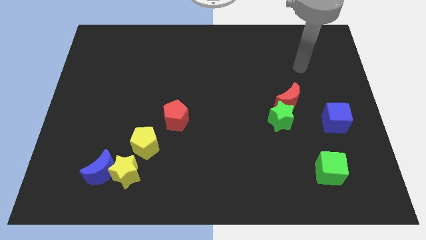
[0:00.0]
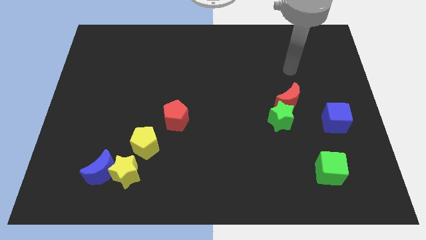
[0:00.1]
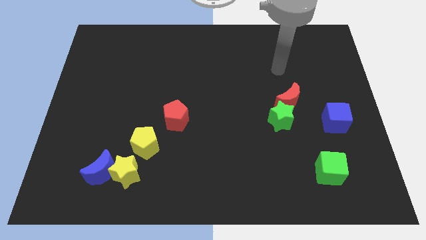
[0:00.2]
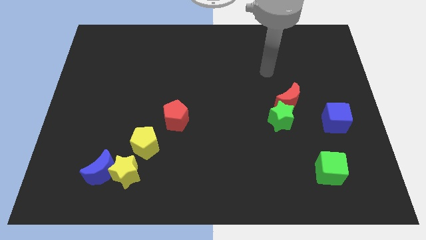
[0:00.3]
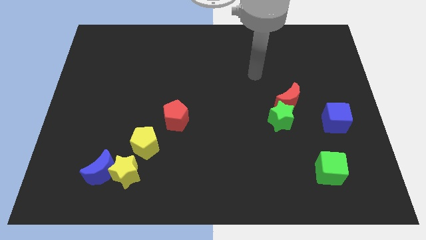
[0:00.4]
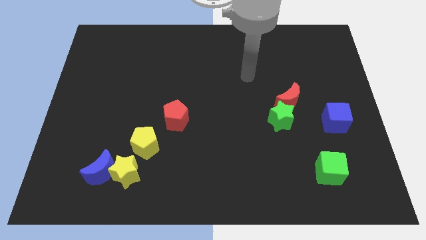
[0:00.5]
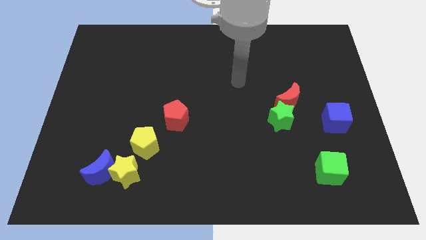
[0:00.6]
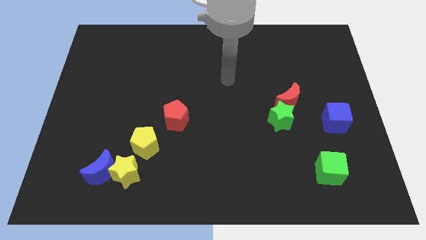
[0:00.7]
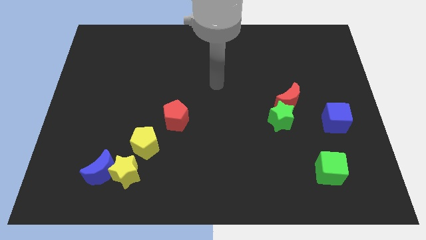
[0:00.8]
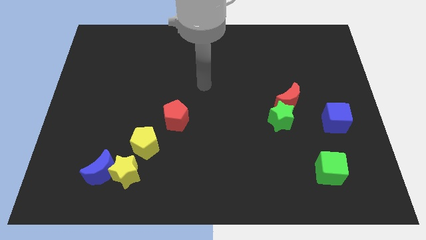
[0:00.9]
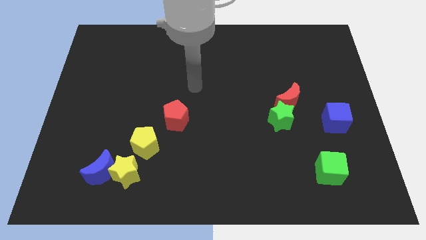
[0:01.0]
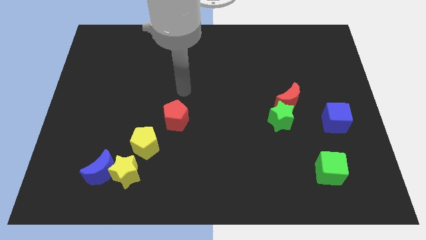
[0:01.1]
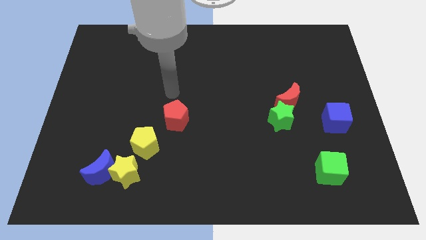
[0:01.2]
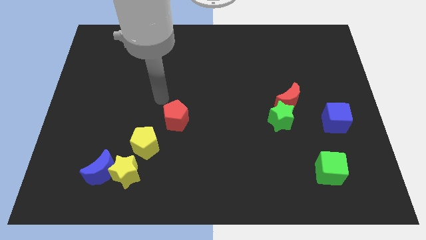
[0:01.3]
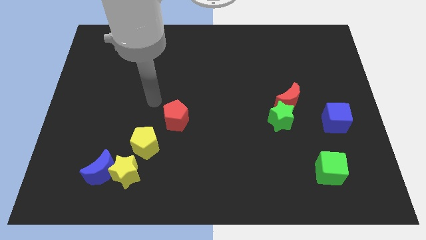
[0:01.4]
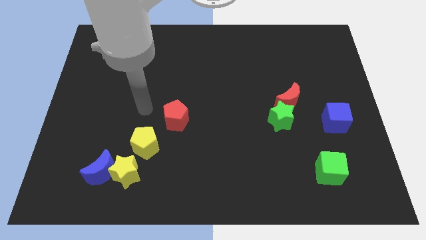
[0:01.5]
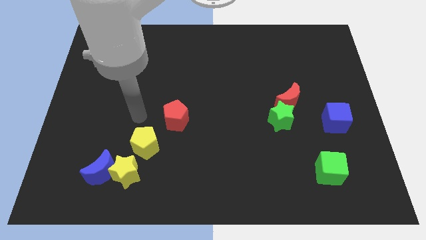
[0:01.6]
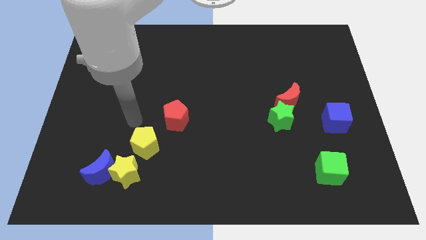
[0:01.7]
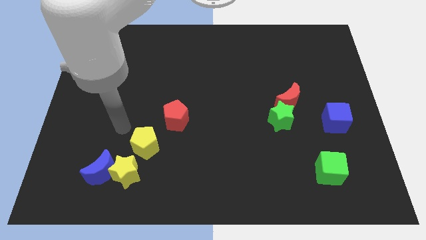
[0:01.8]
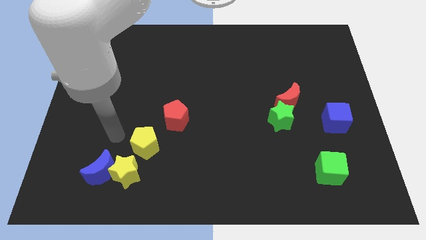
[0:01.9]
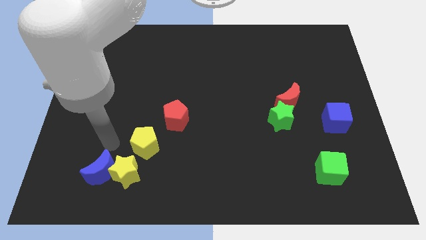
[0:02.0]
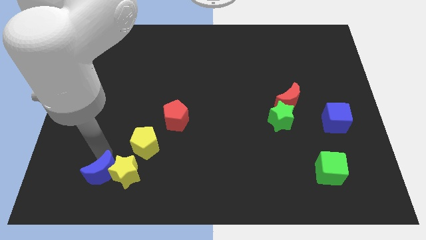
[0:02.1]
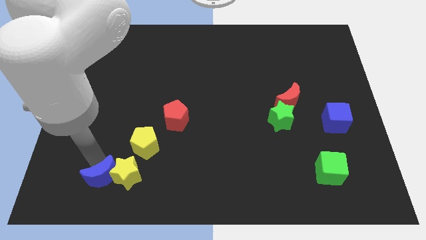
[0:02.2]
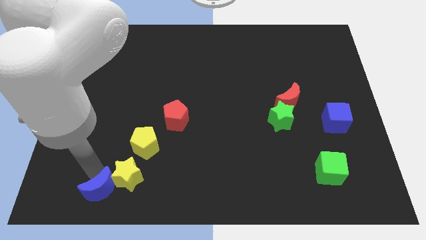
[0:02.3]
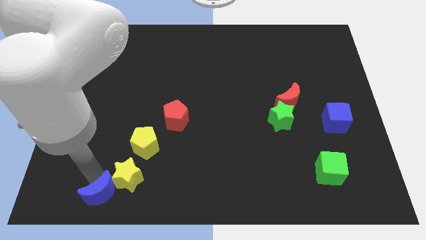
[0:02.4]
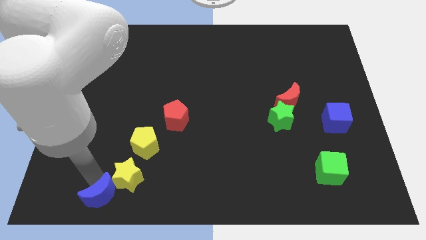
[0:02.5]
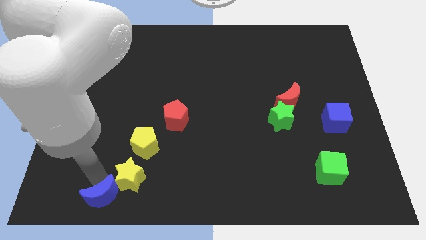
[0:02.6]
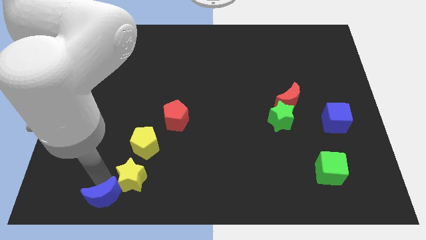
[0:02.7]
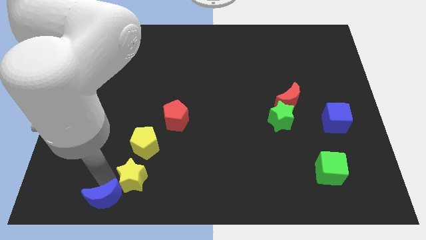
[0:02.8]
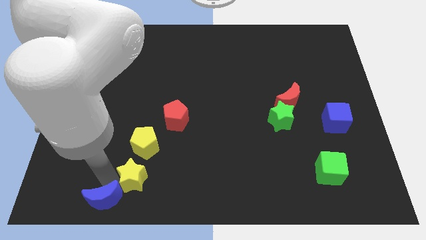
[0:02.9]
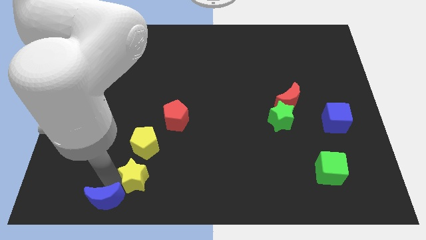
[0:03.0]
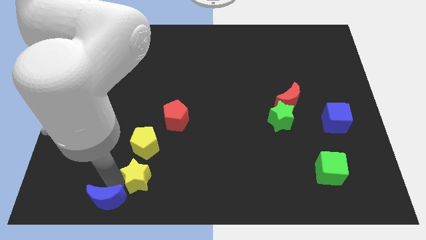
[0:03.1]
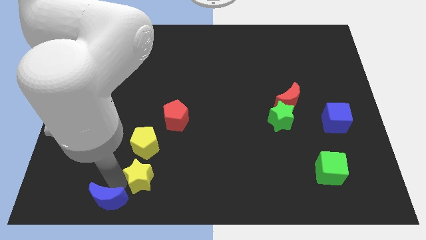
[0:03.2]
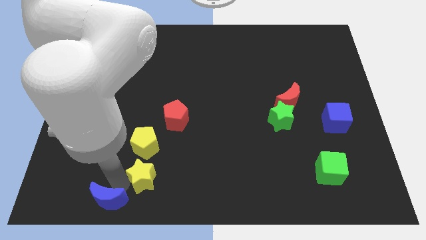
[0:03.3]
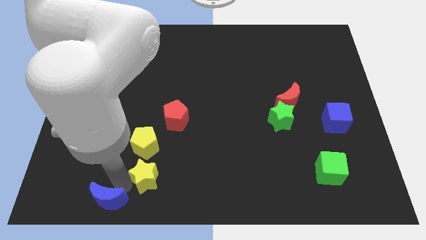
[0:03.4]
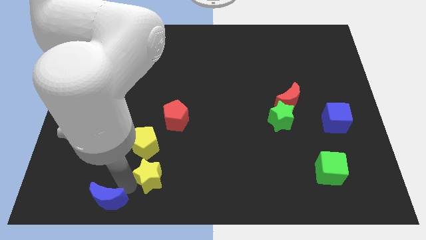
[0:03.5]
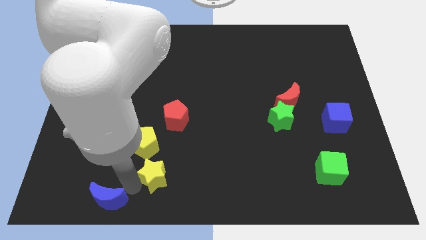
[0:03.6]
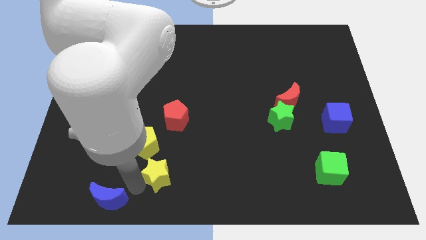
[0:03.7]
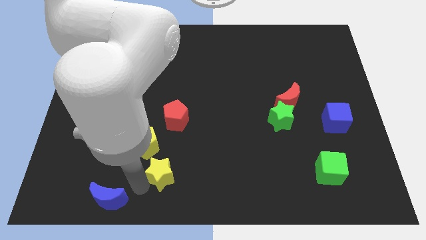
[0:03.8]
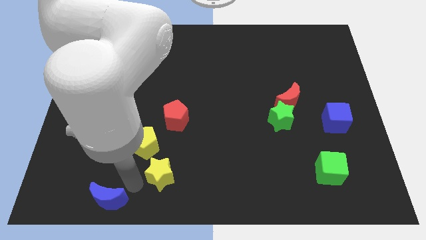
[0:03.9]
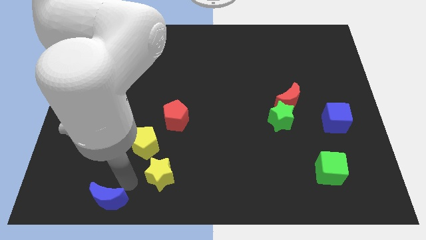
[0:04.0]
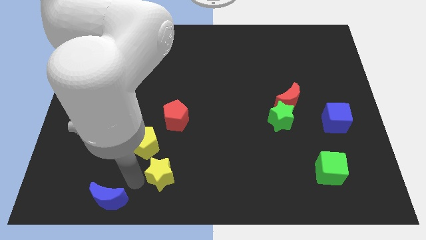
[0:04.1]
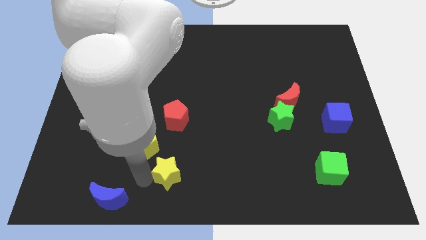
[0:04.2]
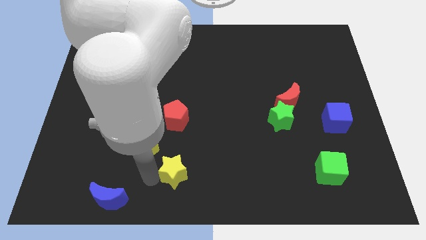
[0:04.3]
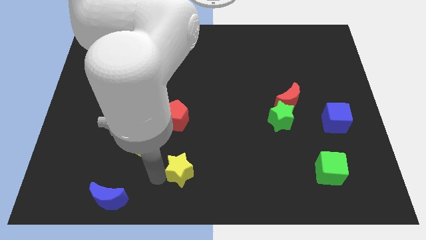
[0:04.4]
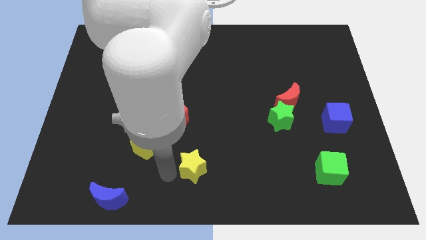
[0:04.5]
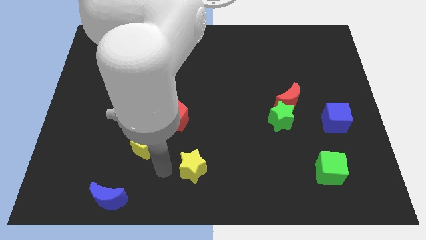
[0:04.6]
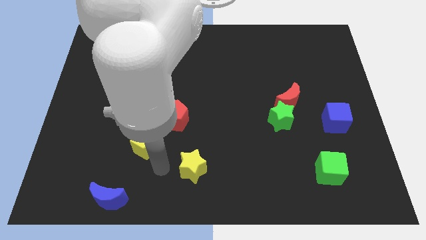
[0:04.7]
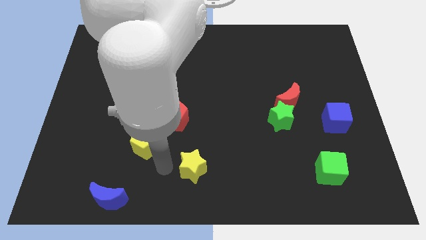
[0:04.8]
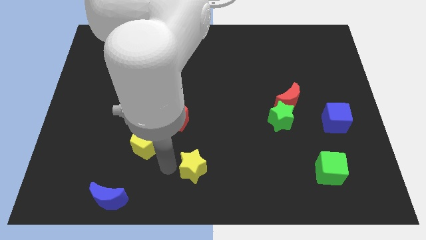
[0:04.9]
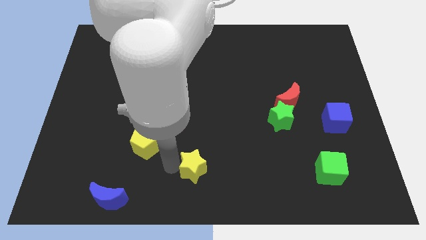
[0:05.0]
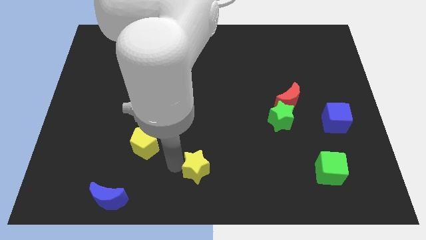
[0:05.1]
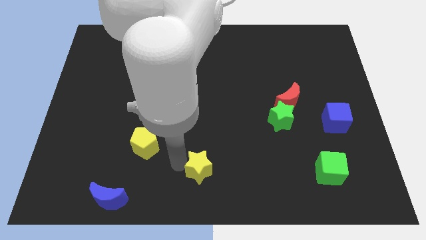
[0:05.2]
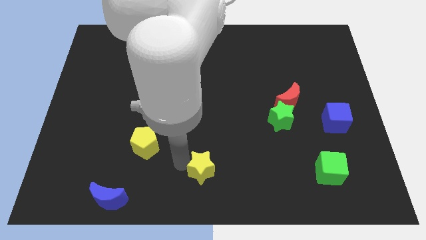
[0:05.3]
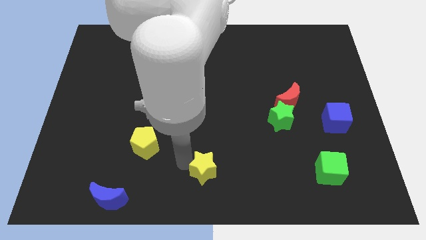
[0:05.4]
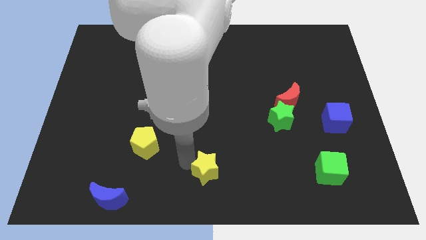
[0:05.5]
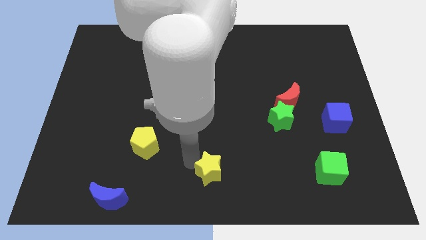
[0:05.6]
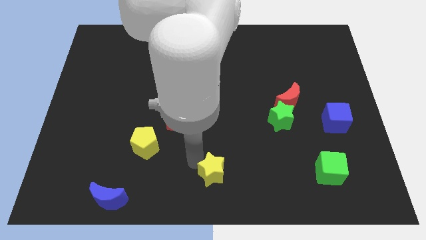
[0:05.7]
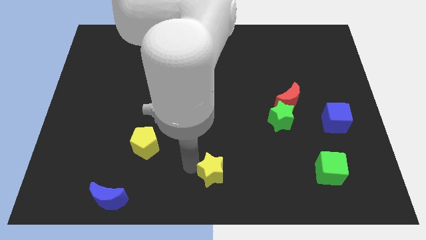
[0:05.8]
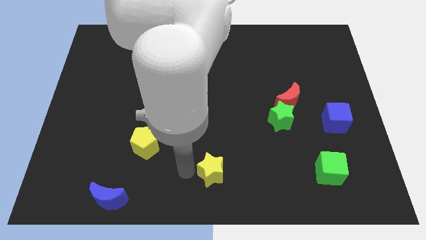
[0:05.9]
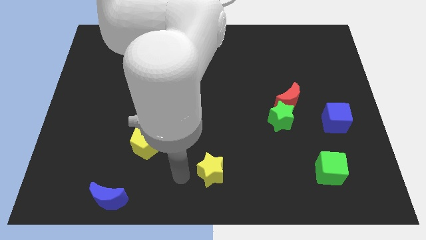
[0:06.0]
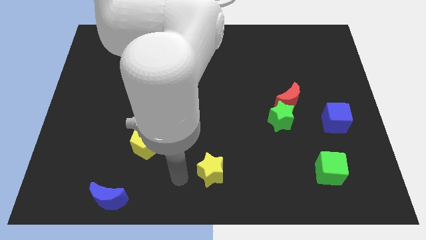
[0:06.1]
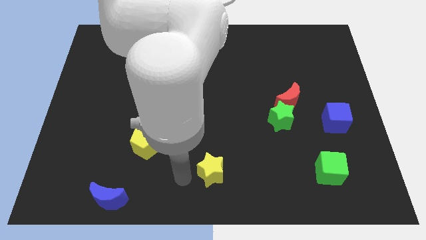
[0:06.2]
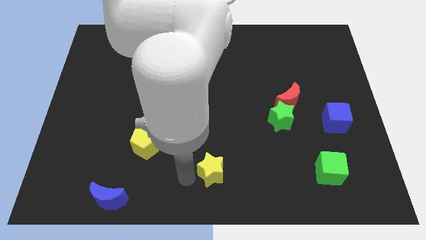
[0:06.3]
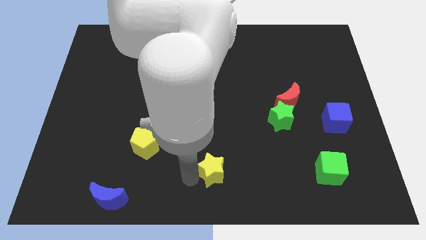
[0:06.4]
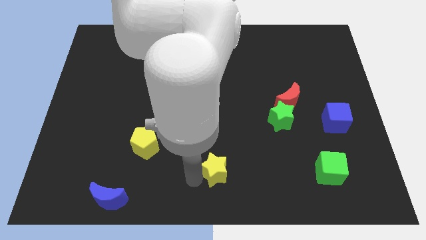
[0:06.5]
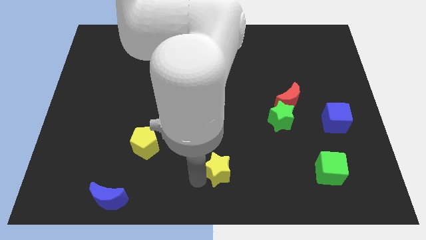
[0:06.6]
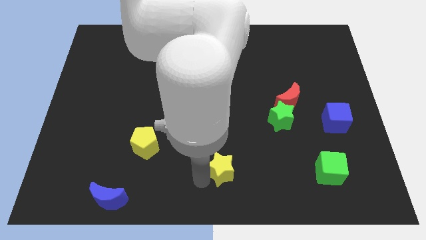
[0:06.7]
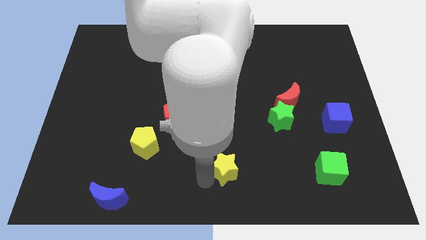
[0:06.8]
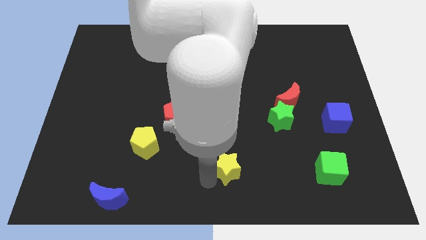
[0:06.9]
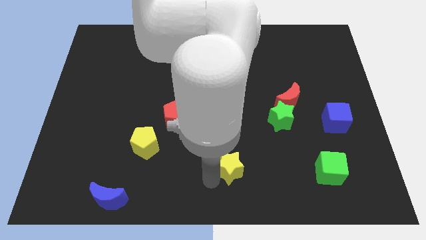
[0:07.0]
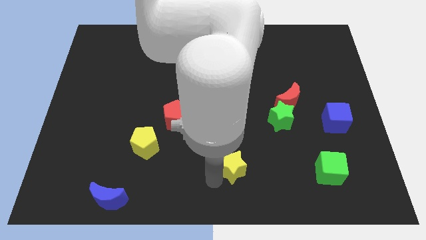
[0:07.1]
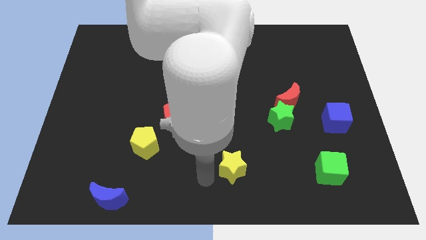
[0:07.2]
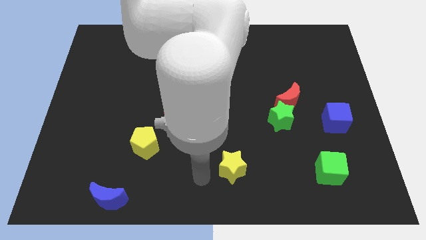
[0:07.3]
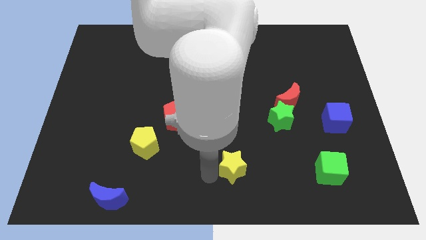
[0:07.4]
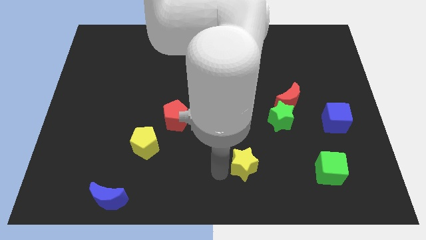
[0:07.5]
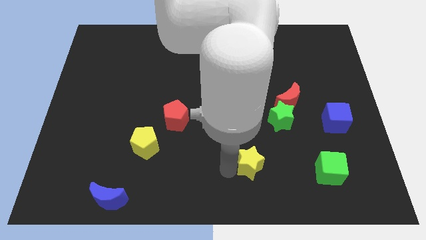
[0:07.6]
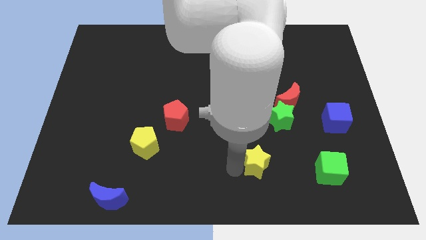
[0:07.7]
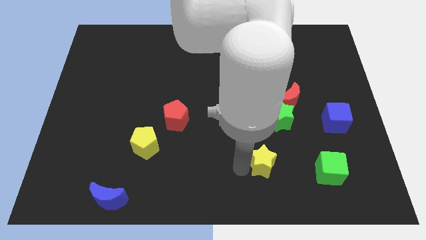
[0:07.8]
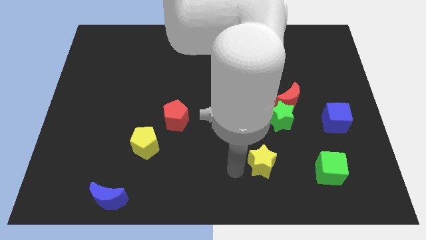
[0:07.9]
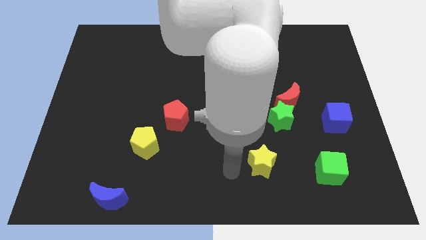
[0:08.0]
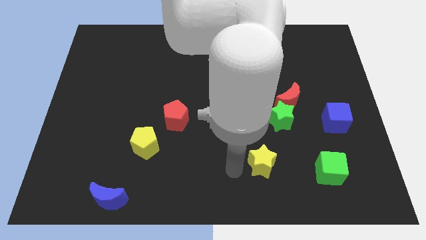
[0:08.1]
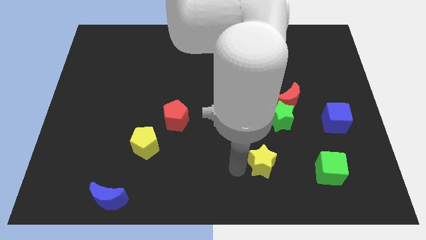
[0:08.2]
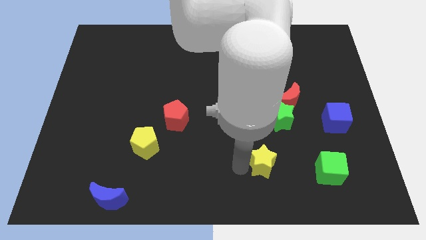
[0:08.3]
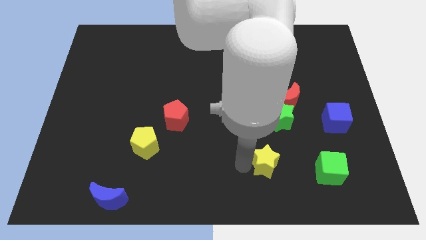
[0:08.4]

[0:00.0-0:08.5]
push the yellow star to the bottom of the green star
